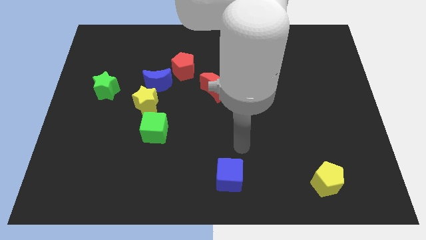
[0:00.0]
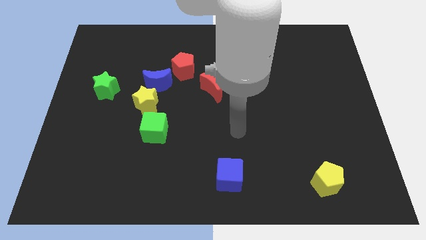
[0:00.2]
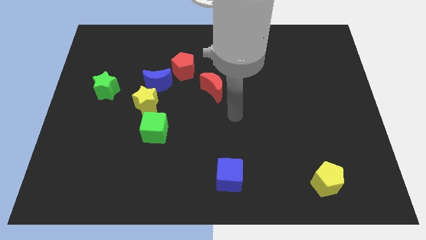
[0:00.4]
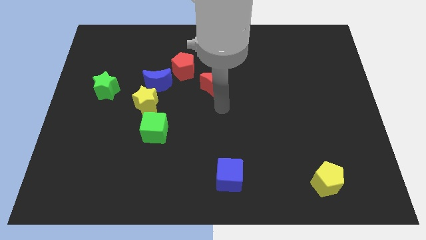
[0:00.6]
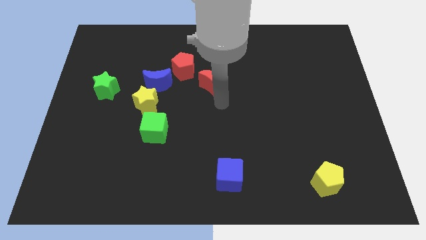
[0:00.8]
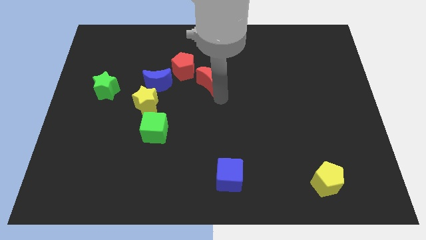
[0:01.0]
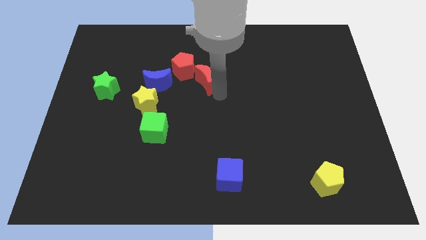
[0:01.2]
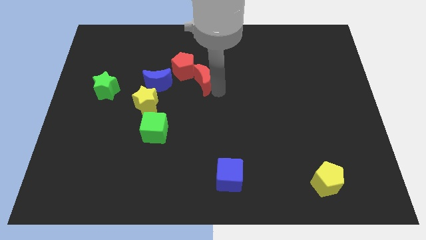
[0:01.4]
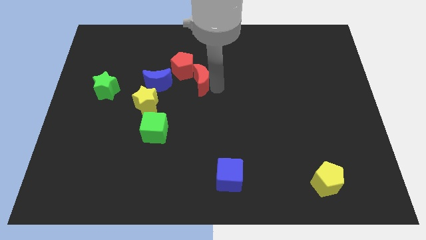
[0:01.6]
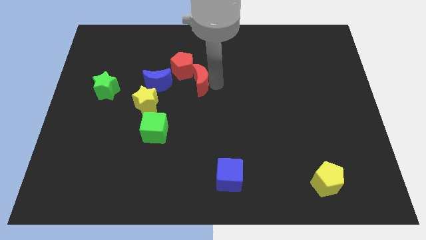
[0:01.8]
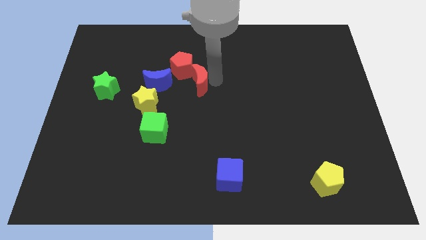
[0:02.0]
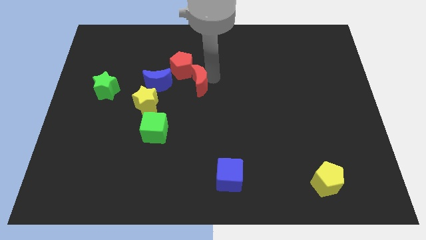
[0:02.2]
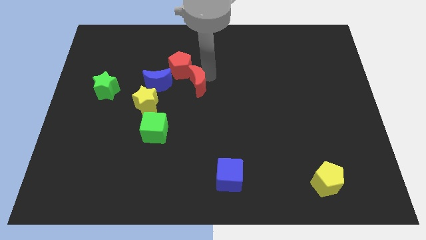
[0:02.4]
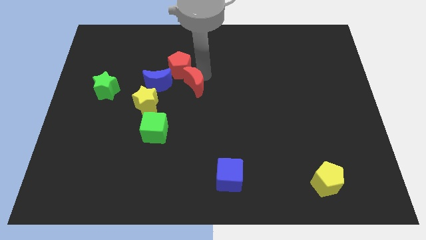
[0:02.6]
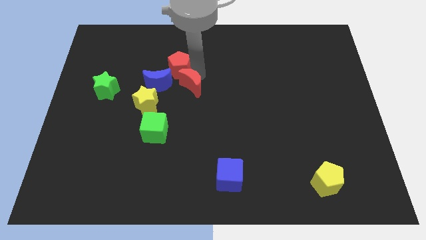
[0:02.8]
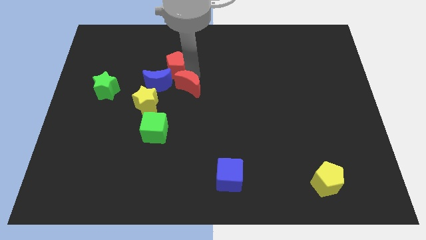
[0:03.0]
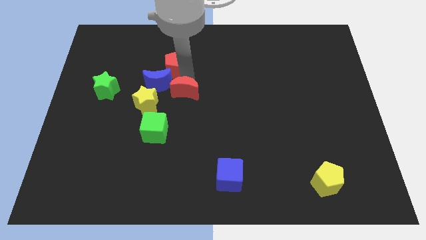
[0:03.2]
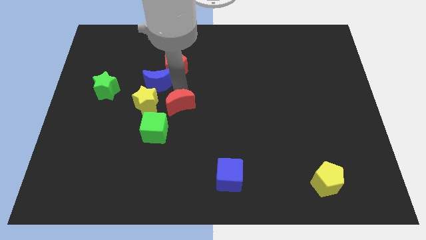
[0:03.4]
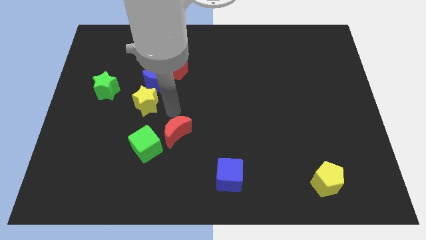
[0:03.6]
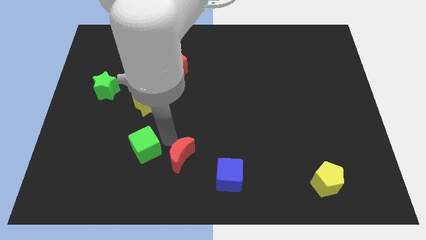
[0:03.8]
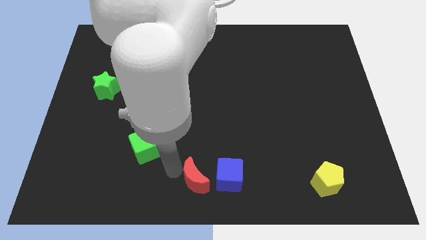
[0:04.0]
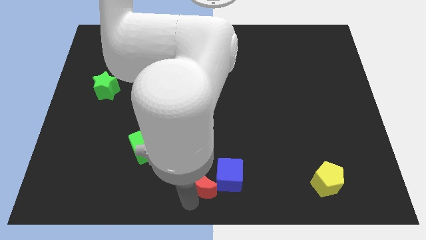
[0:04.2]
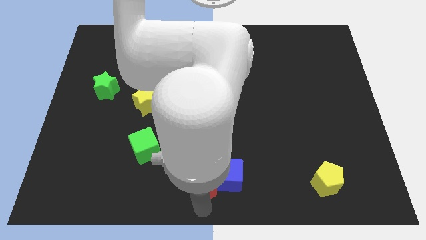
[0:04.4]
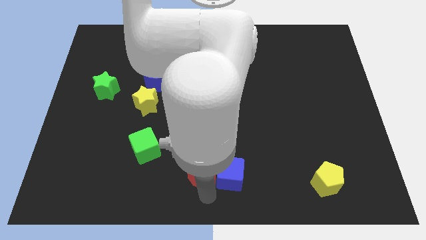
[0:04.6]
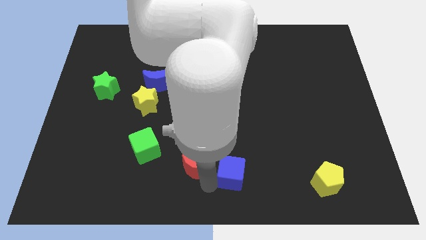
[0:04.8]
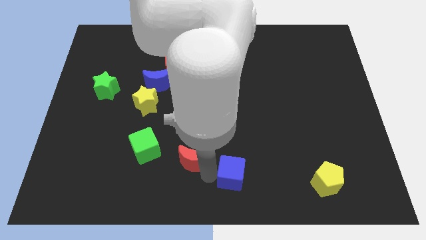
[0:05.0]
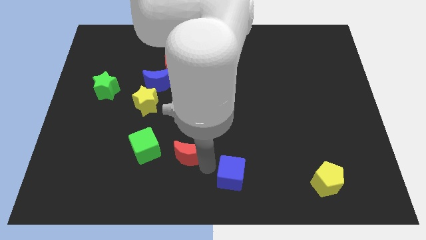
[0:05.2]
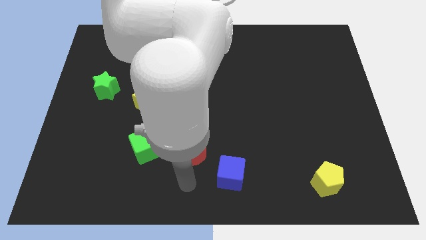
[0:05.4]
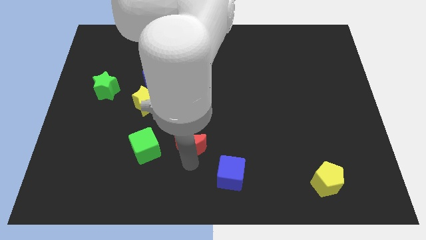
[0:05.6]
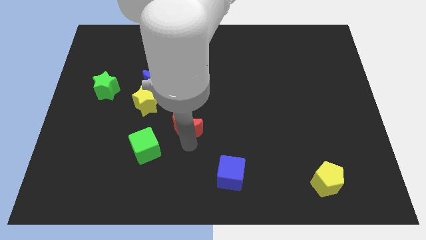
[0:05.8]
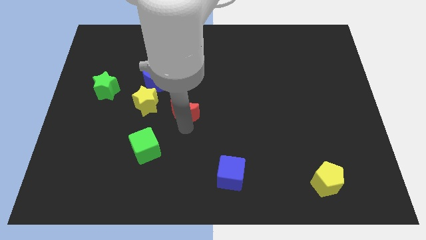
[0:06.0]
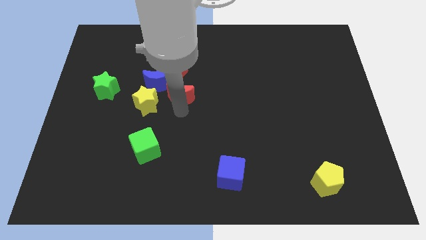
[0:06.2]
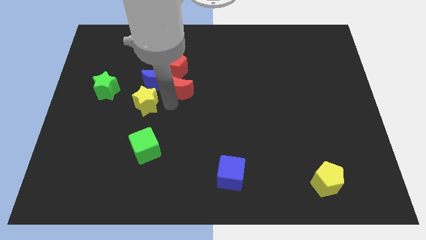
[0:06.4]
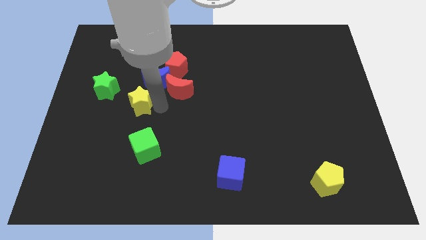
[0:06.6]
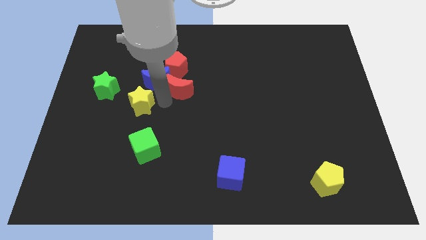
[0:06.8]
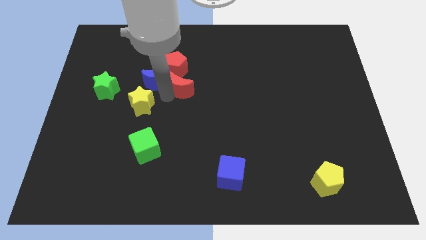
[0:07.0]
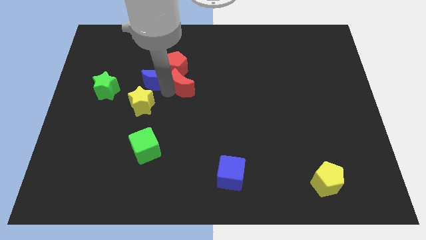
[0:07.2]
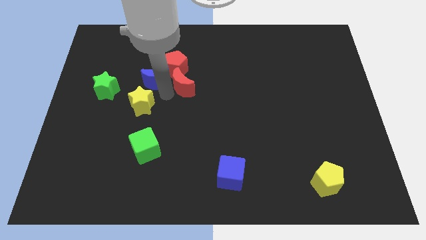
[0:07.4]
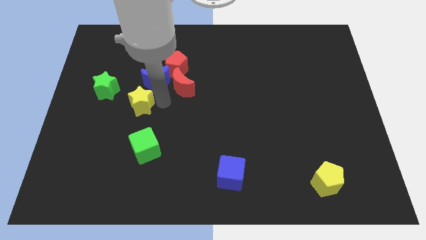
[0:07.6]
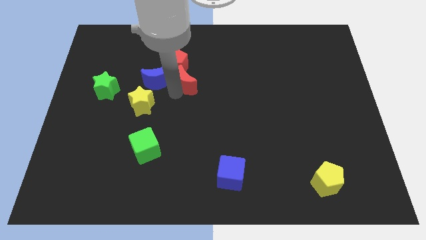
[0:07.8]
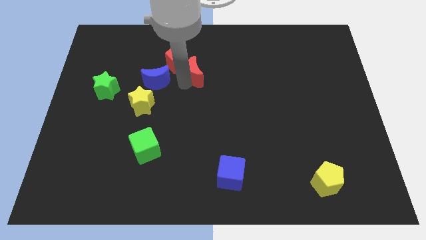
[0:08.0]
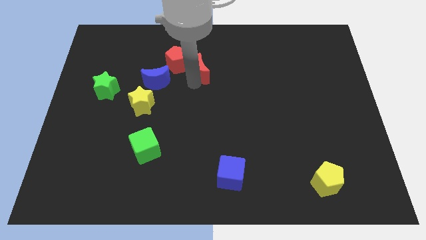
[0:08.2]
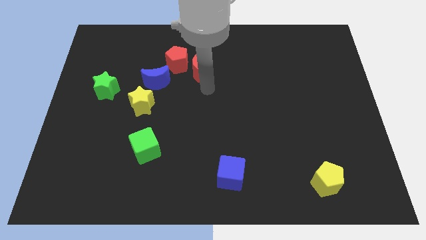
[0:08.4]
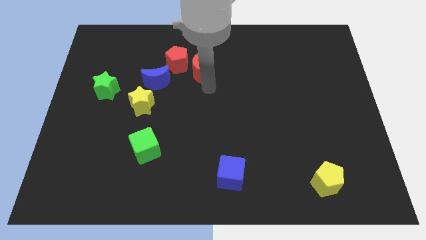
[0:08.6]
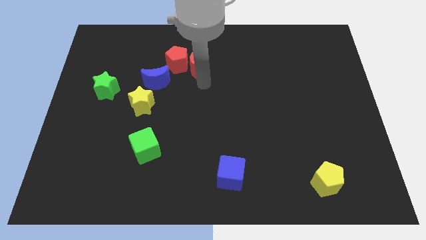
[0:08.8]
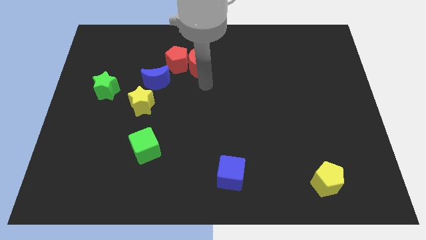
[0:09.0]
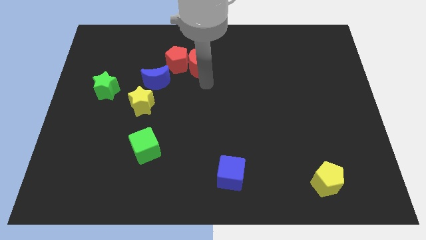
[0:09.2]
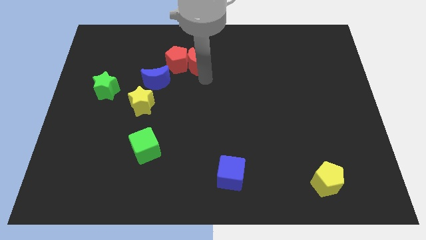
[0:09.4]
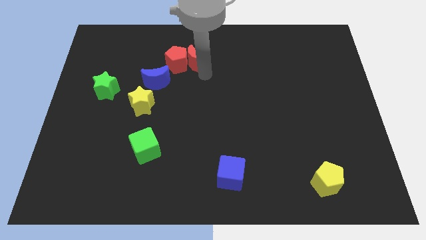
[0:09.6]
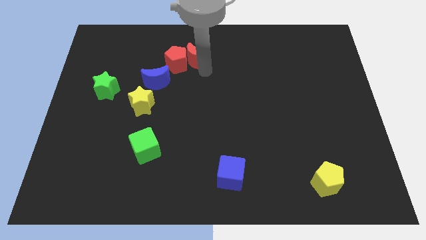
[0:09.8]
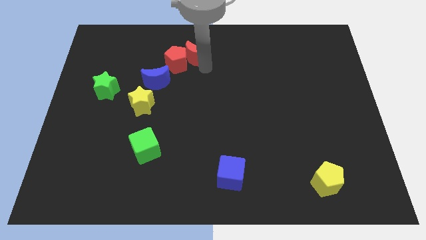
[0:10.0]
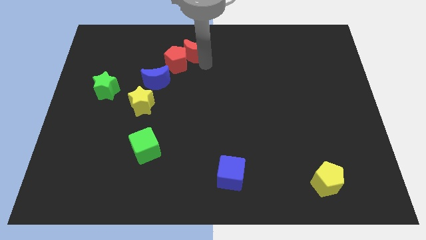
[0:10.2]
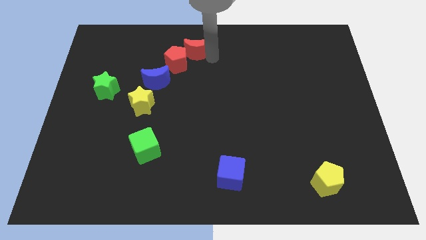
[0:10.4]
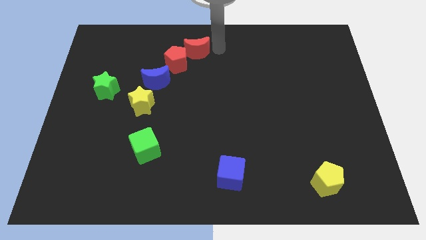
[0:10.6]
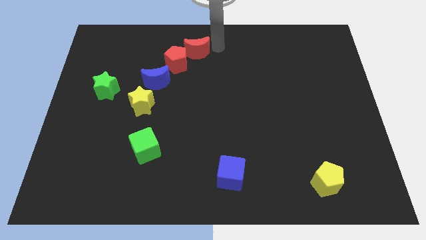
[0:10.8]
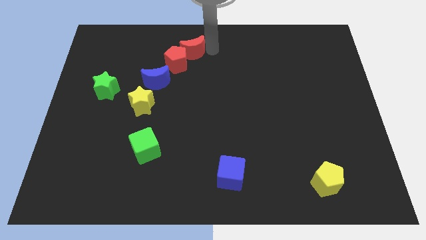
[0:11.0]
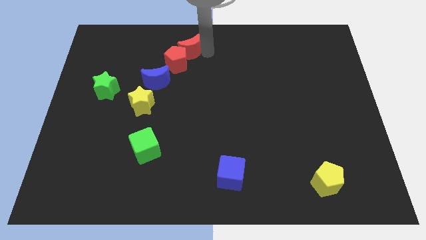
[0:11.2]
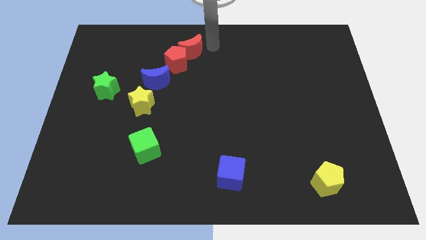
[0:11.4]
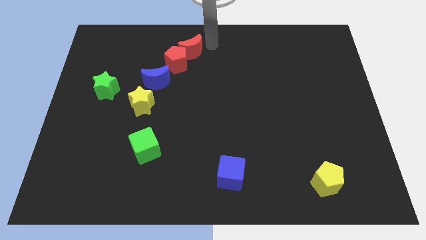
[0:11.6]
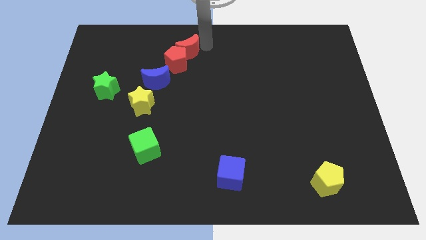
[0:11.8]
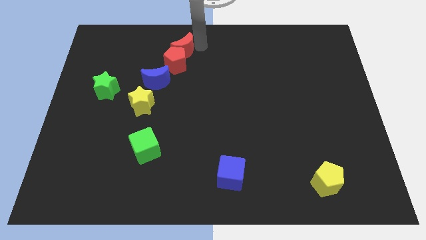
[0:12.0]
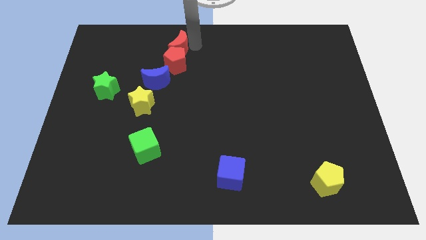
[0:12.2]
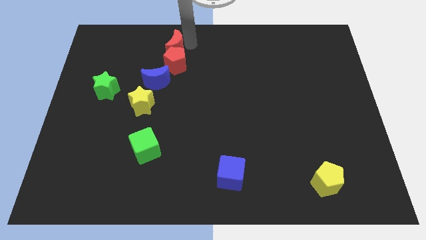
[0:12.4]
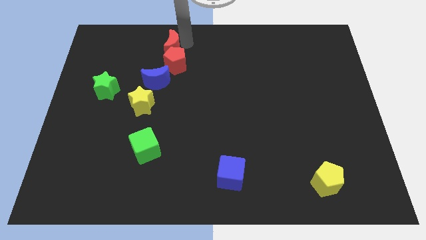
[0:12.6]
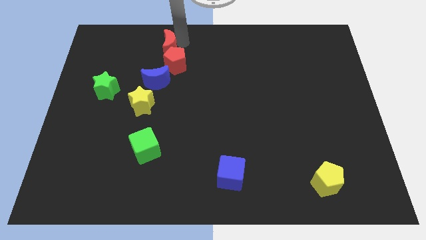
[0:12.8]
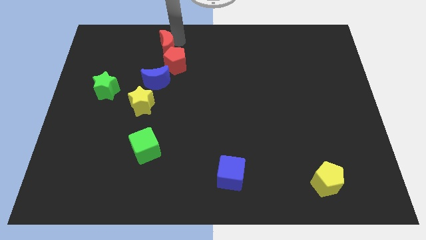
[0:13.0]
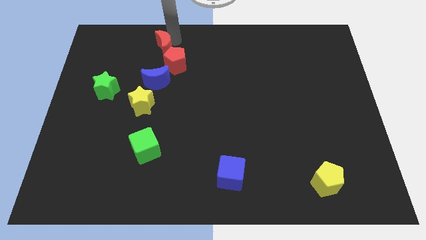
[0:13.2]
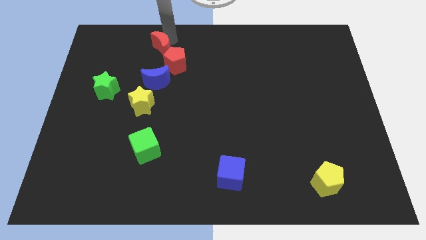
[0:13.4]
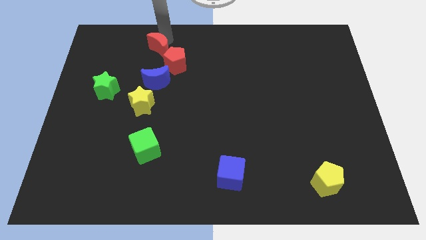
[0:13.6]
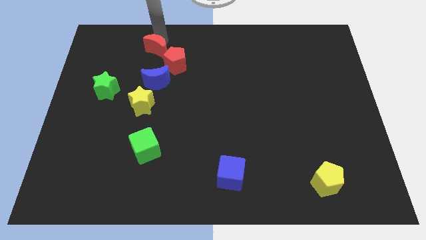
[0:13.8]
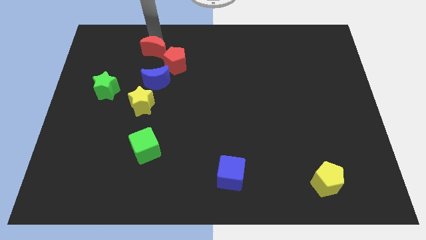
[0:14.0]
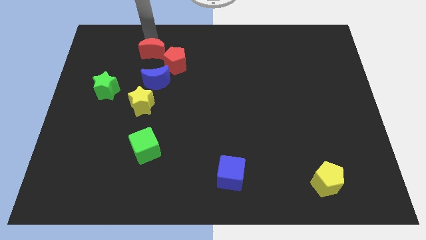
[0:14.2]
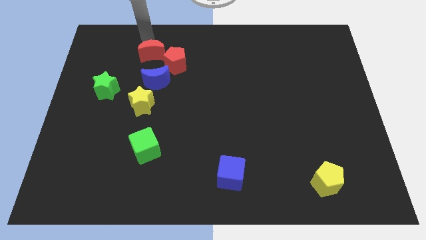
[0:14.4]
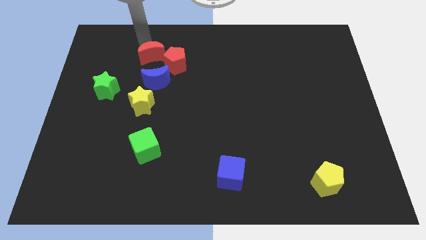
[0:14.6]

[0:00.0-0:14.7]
slide the red moon to the top left side of the blue moon
